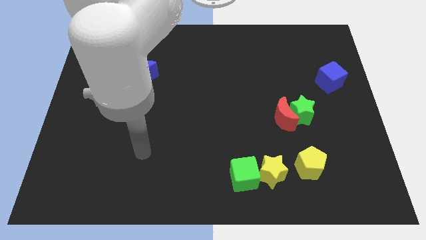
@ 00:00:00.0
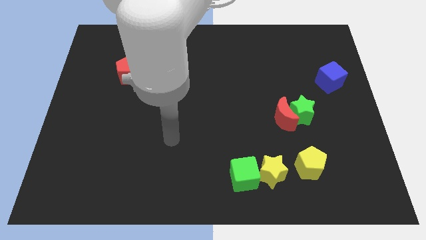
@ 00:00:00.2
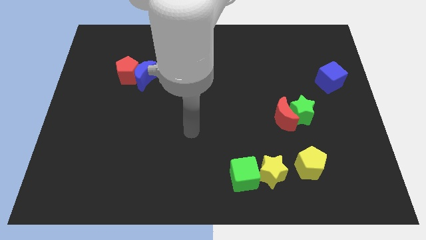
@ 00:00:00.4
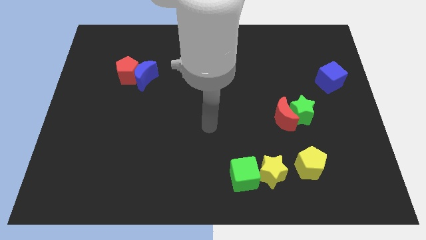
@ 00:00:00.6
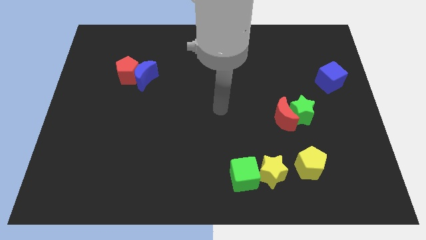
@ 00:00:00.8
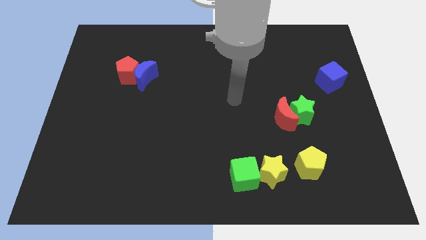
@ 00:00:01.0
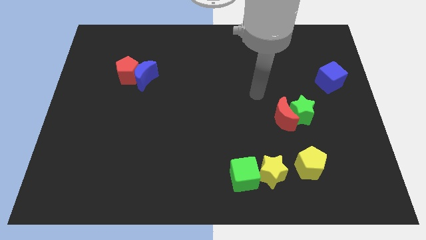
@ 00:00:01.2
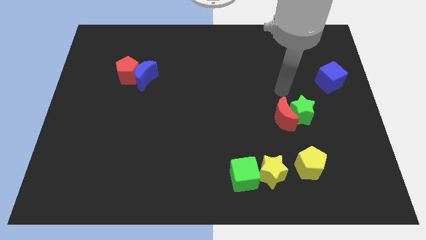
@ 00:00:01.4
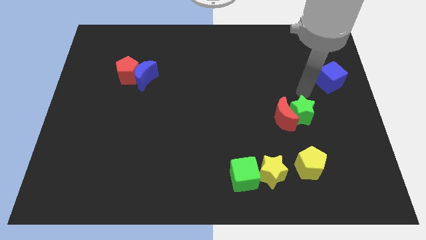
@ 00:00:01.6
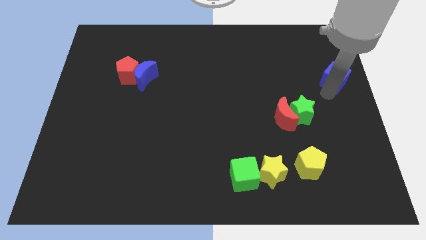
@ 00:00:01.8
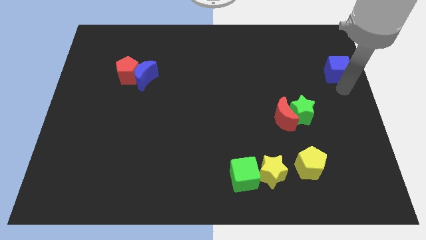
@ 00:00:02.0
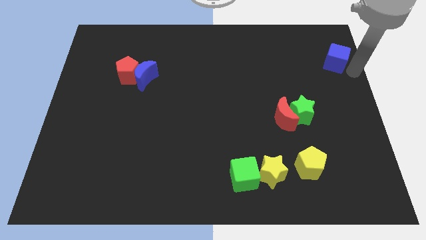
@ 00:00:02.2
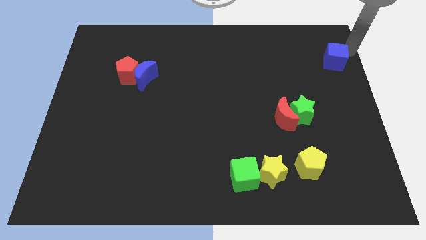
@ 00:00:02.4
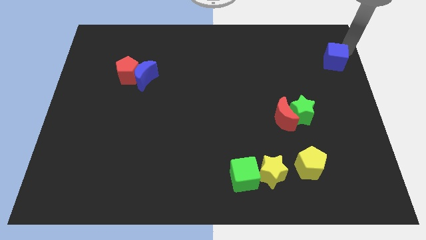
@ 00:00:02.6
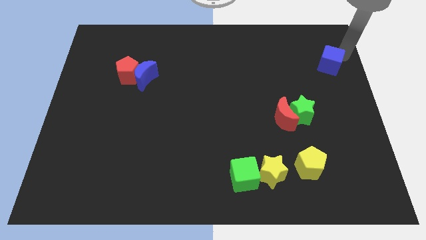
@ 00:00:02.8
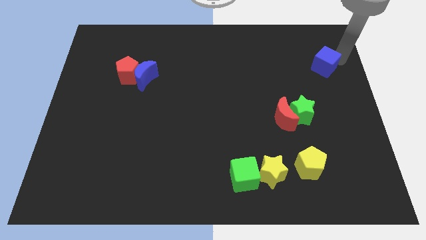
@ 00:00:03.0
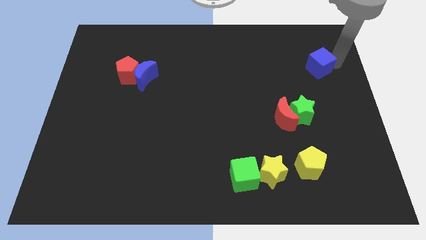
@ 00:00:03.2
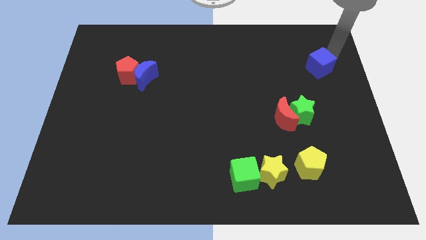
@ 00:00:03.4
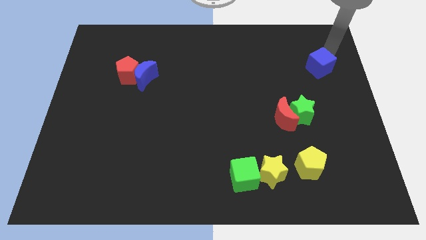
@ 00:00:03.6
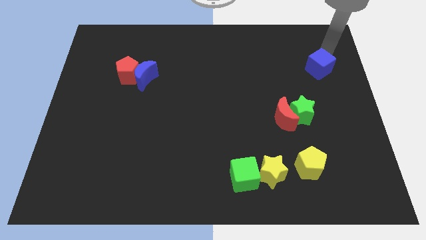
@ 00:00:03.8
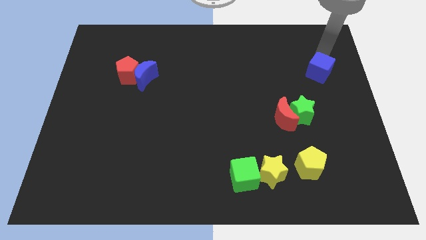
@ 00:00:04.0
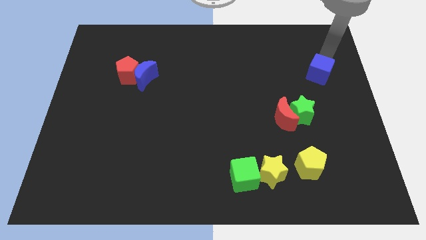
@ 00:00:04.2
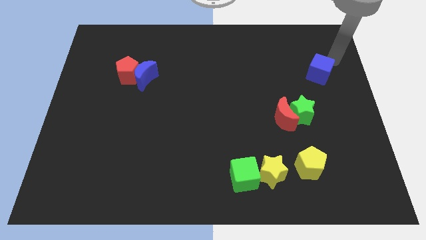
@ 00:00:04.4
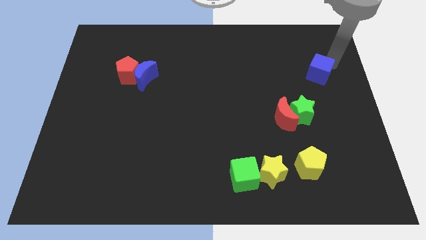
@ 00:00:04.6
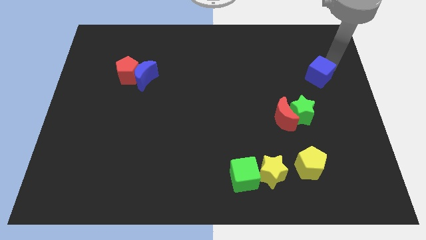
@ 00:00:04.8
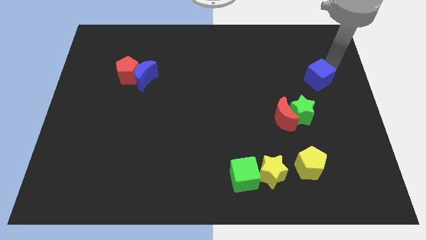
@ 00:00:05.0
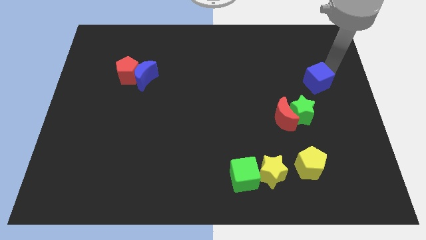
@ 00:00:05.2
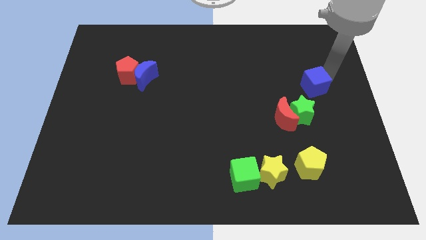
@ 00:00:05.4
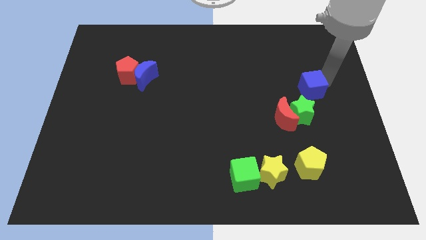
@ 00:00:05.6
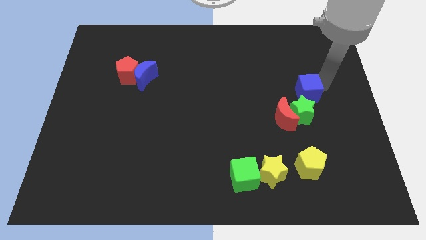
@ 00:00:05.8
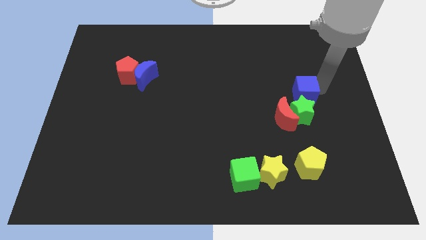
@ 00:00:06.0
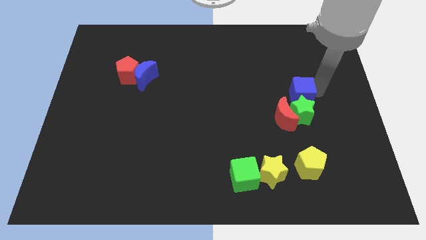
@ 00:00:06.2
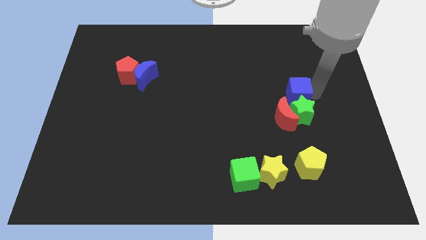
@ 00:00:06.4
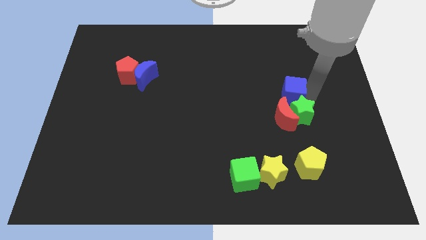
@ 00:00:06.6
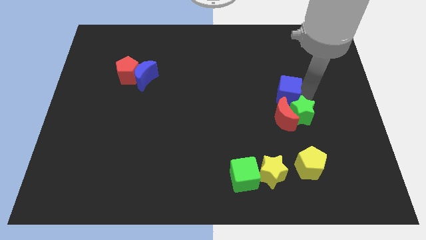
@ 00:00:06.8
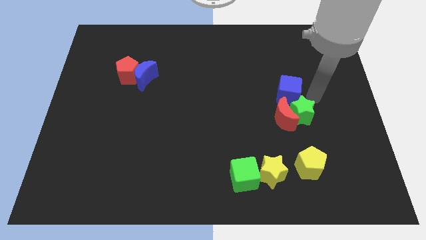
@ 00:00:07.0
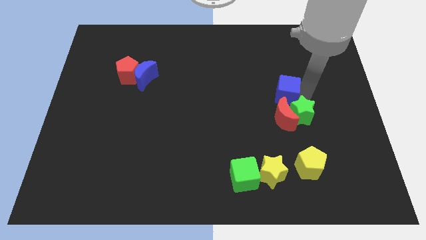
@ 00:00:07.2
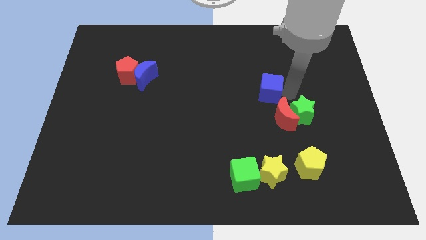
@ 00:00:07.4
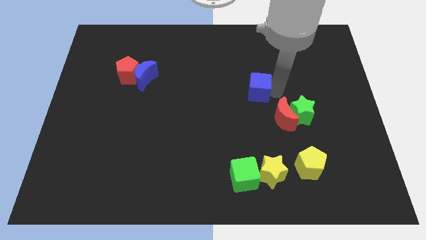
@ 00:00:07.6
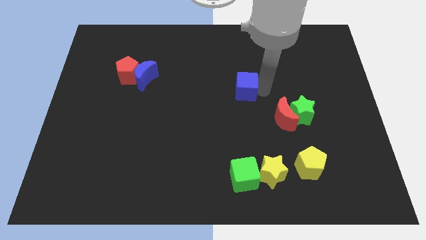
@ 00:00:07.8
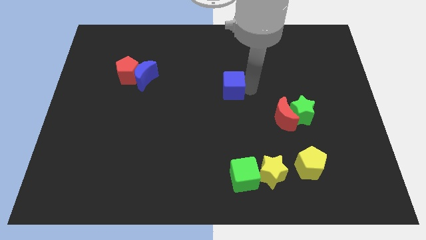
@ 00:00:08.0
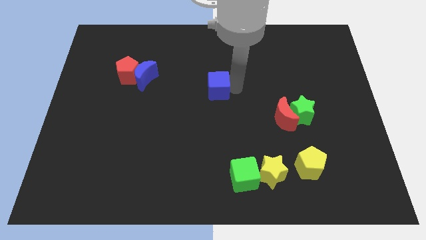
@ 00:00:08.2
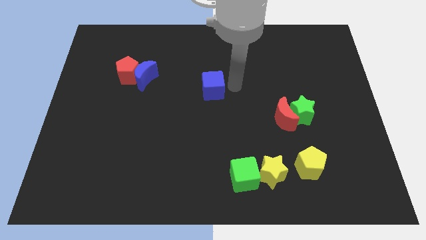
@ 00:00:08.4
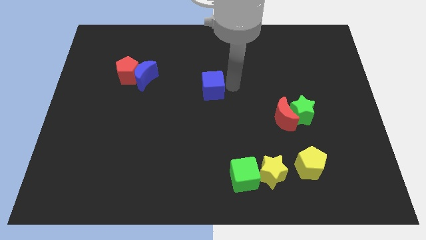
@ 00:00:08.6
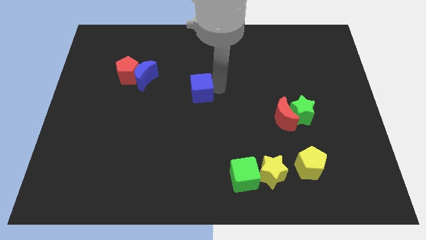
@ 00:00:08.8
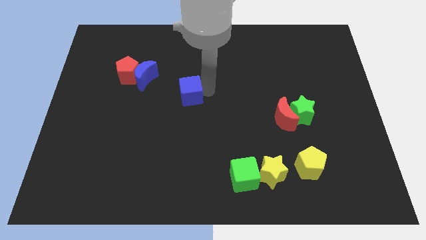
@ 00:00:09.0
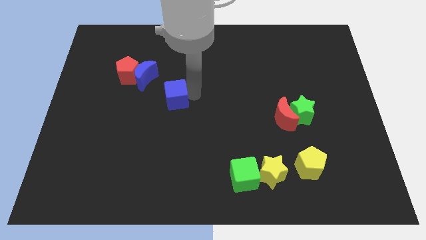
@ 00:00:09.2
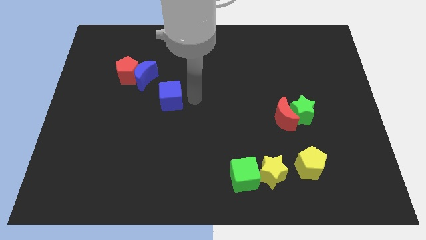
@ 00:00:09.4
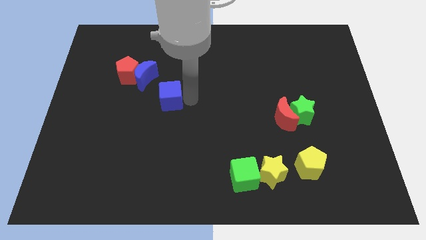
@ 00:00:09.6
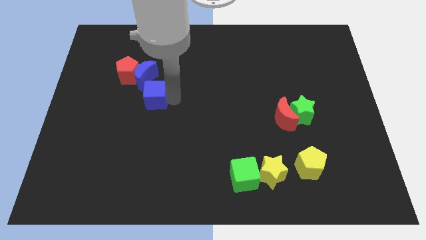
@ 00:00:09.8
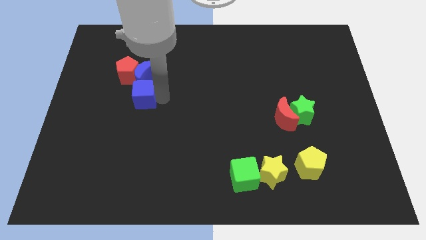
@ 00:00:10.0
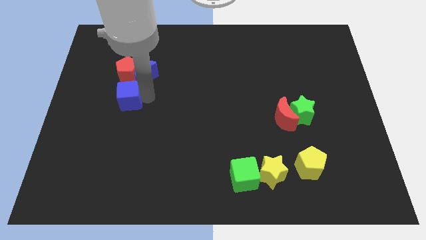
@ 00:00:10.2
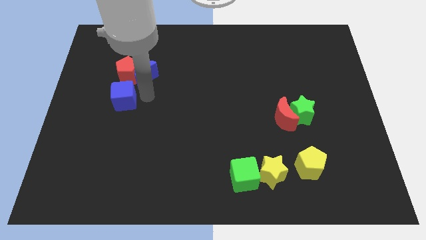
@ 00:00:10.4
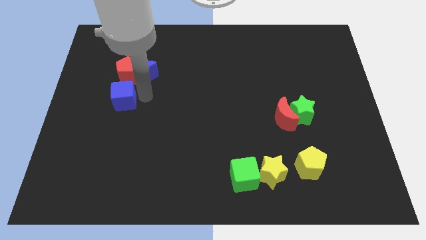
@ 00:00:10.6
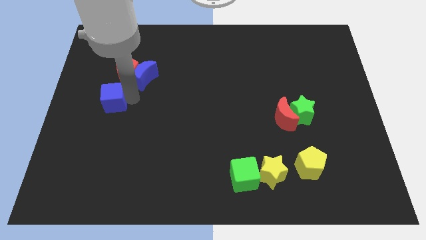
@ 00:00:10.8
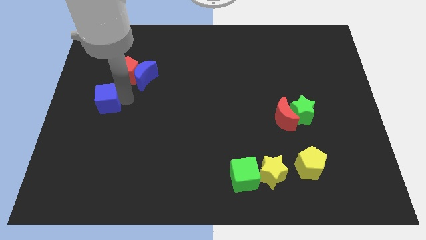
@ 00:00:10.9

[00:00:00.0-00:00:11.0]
slide the blue cube to the left side

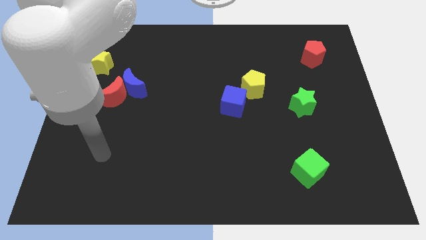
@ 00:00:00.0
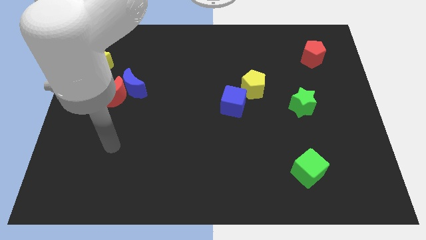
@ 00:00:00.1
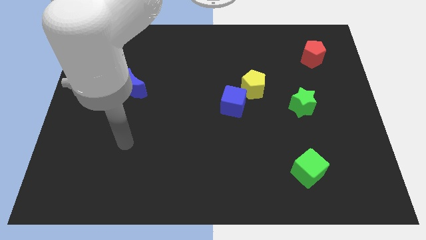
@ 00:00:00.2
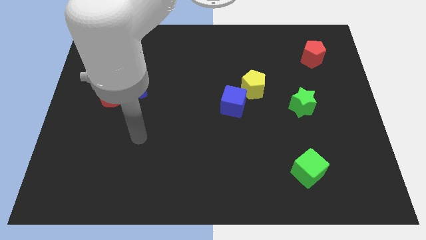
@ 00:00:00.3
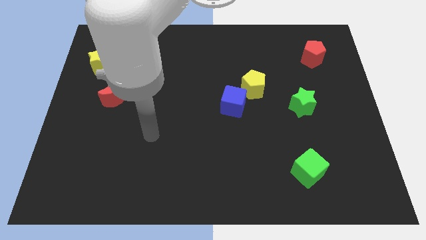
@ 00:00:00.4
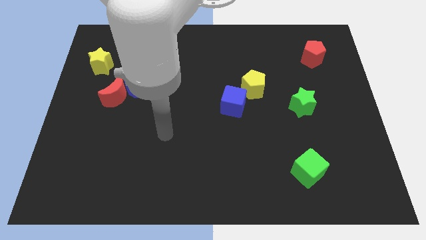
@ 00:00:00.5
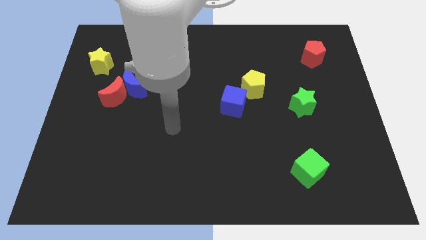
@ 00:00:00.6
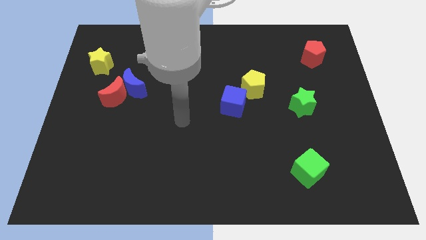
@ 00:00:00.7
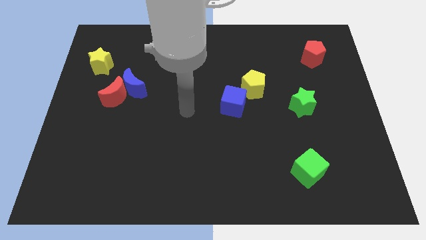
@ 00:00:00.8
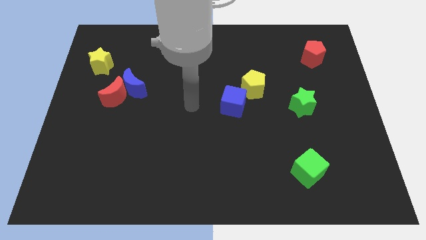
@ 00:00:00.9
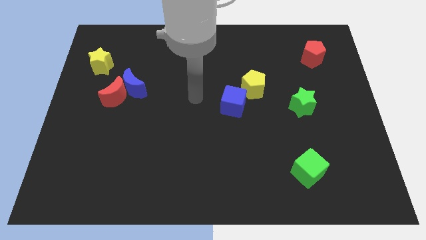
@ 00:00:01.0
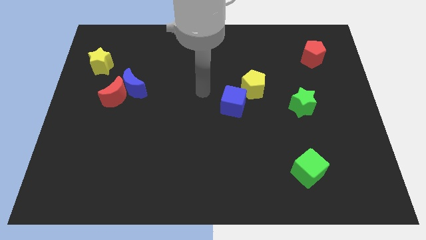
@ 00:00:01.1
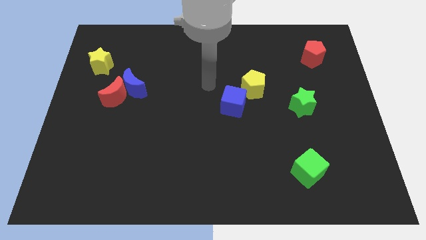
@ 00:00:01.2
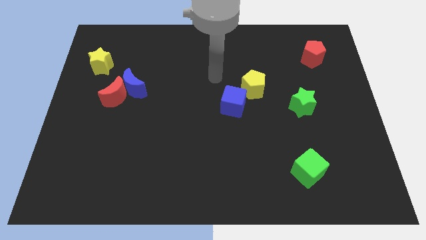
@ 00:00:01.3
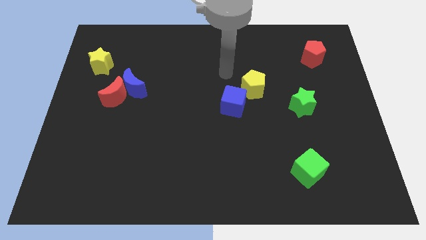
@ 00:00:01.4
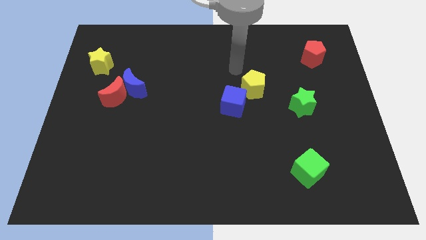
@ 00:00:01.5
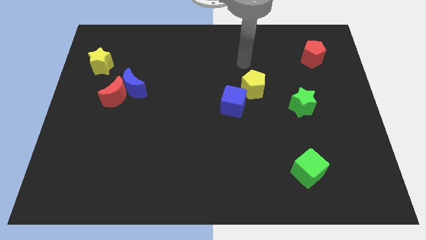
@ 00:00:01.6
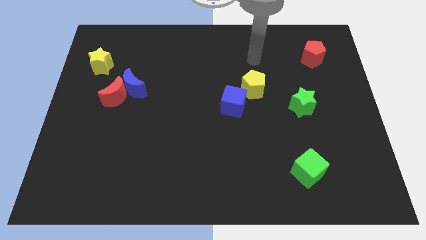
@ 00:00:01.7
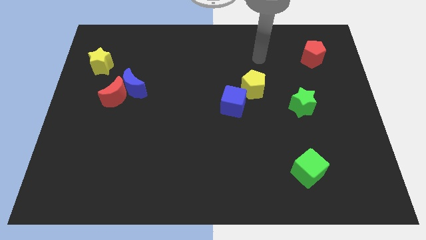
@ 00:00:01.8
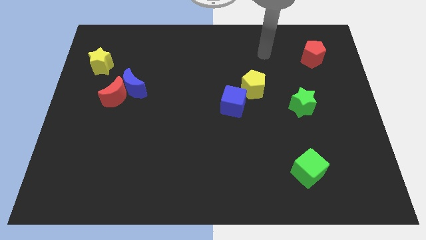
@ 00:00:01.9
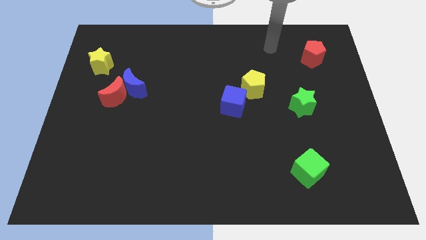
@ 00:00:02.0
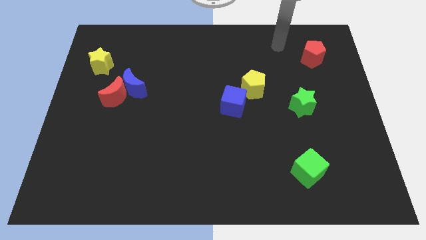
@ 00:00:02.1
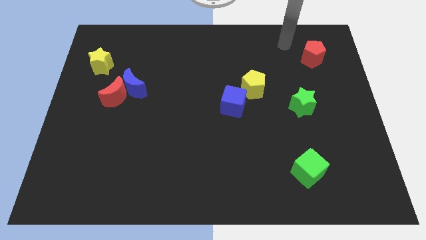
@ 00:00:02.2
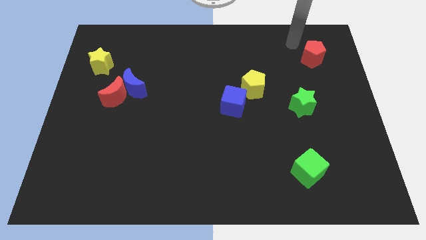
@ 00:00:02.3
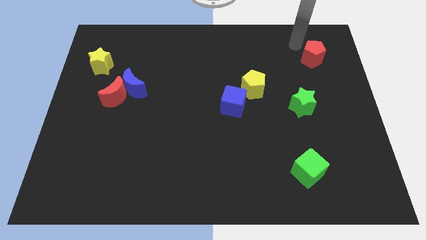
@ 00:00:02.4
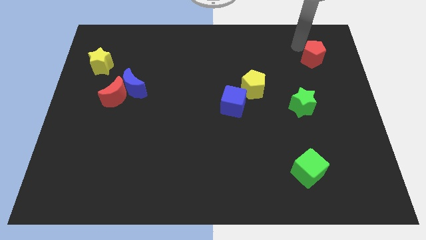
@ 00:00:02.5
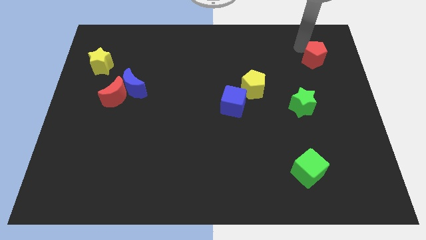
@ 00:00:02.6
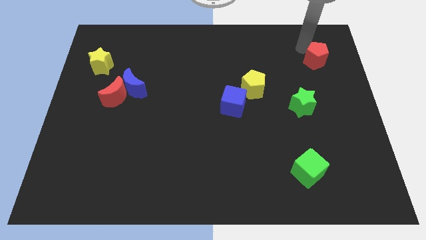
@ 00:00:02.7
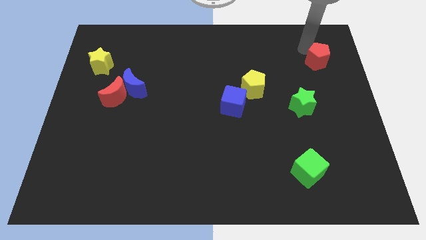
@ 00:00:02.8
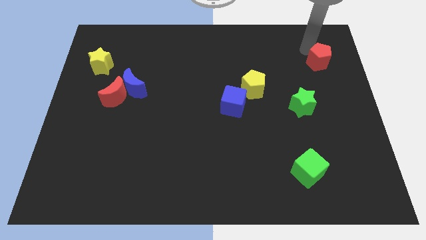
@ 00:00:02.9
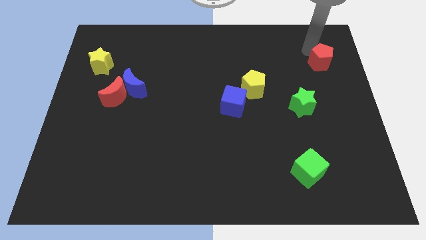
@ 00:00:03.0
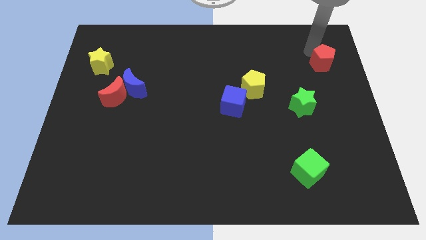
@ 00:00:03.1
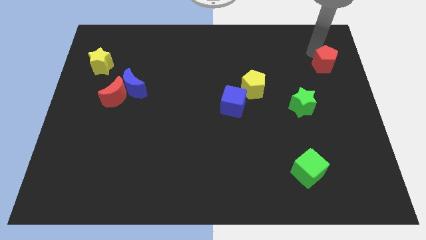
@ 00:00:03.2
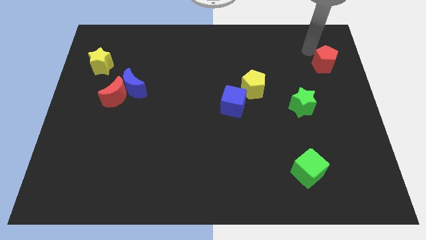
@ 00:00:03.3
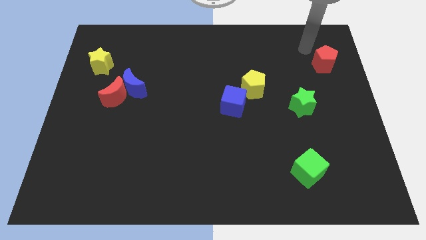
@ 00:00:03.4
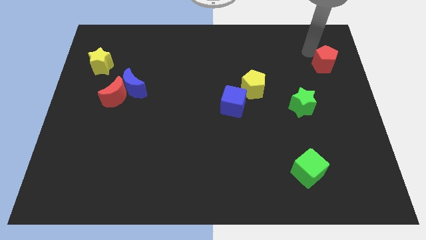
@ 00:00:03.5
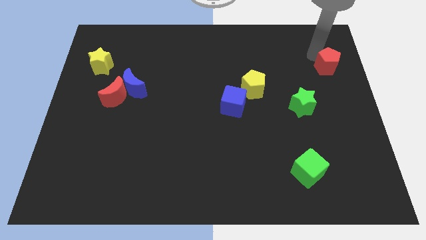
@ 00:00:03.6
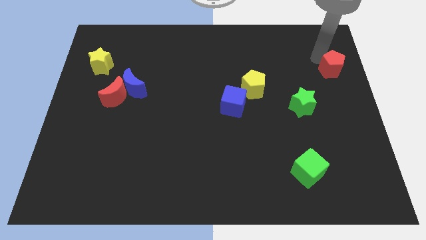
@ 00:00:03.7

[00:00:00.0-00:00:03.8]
slide the red pentagon to the right side of the board
